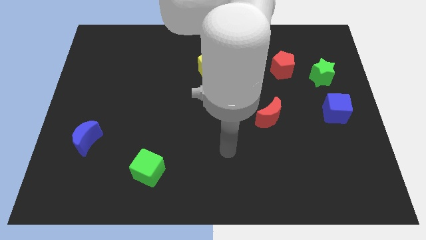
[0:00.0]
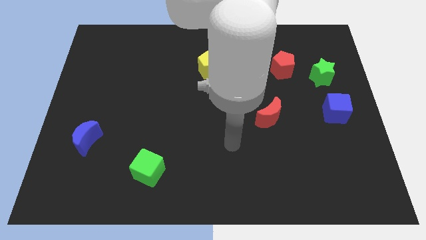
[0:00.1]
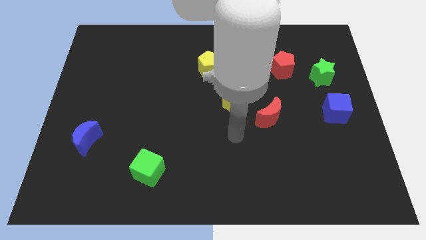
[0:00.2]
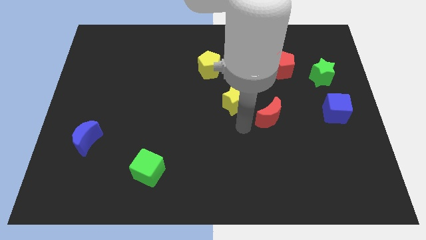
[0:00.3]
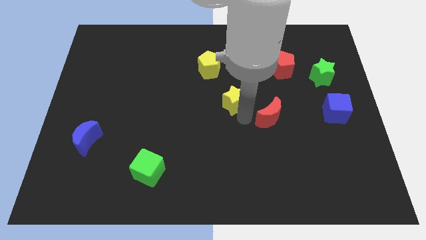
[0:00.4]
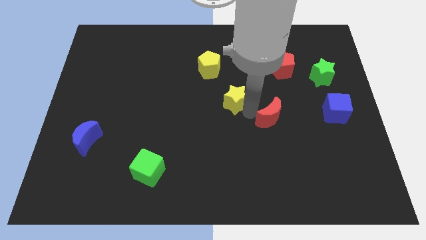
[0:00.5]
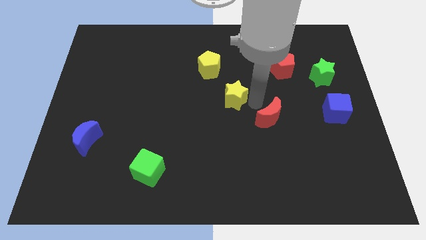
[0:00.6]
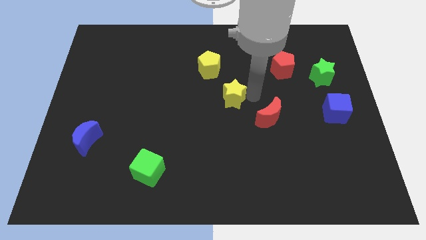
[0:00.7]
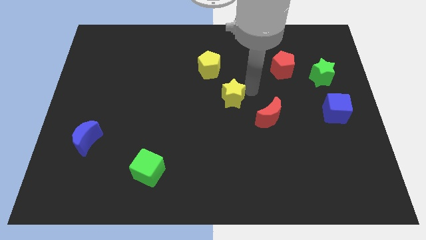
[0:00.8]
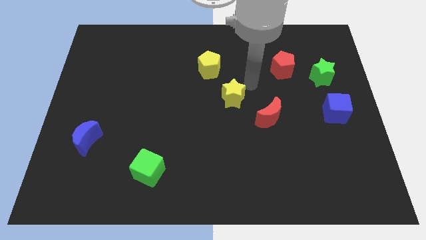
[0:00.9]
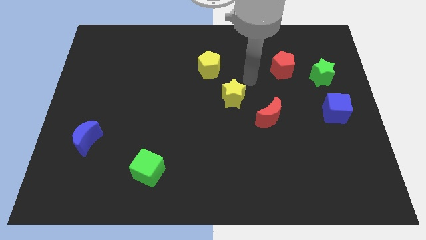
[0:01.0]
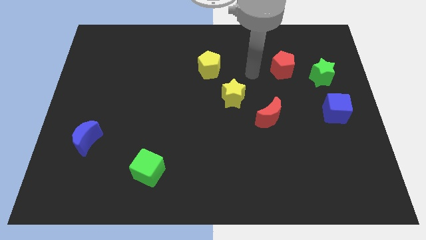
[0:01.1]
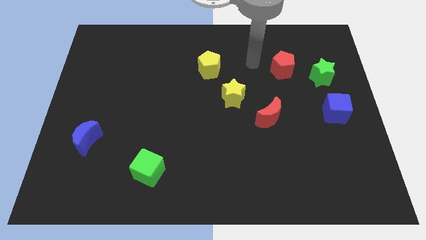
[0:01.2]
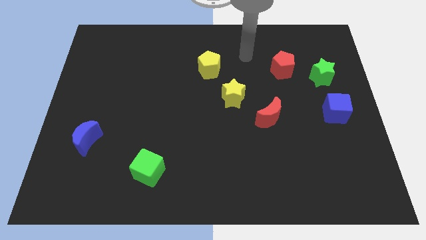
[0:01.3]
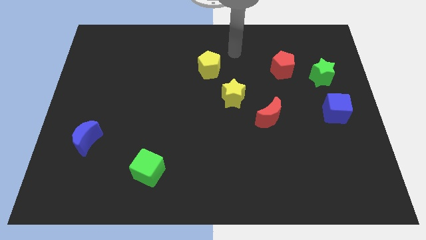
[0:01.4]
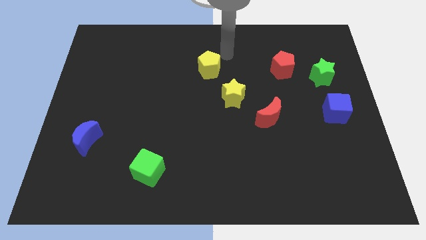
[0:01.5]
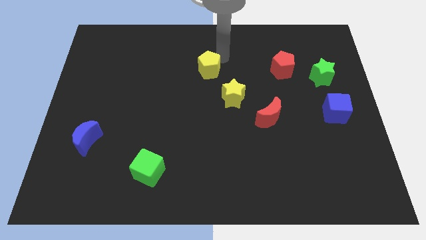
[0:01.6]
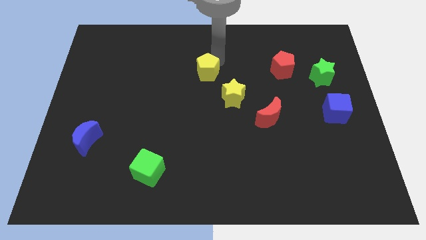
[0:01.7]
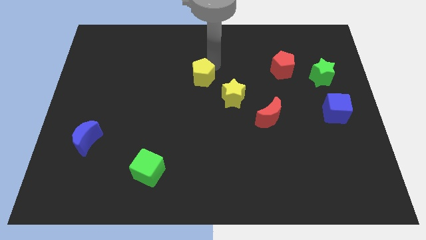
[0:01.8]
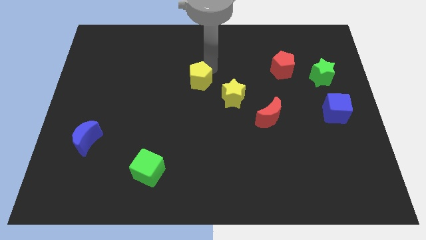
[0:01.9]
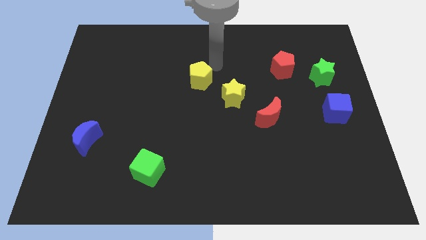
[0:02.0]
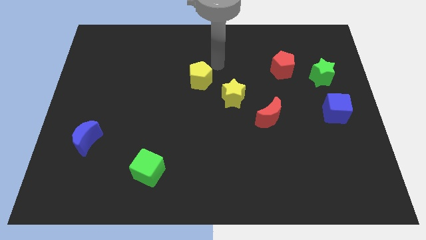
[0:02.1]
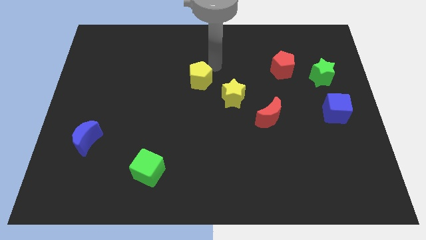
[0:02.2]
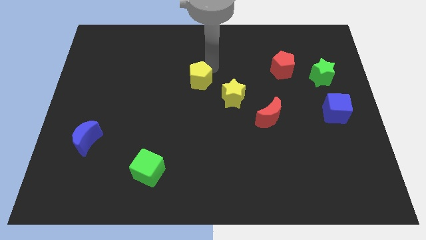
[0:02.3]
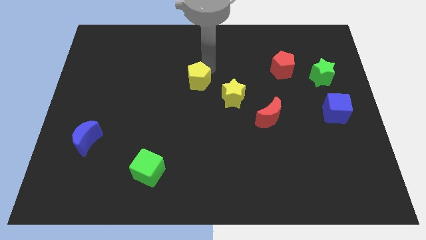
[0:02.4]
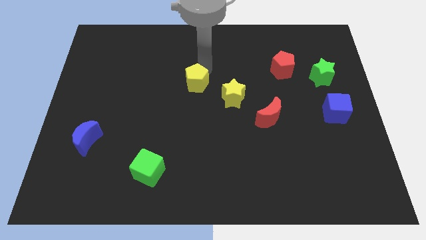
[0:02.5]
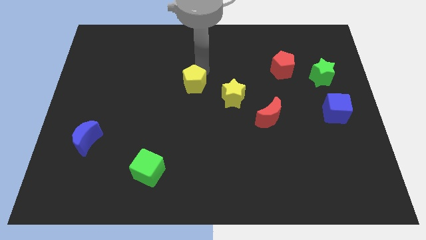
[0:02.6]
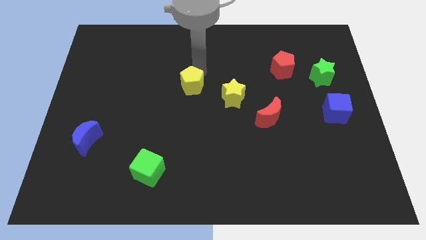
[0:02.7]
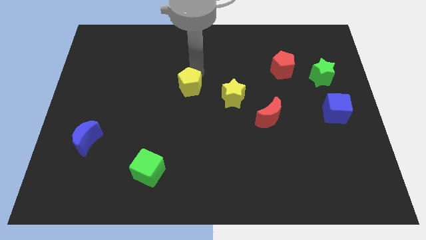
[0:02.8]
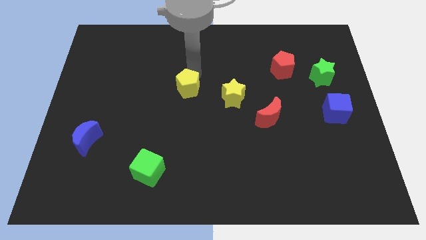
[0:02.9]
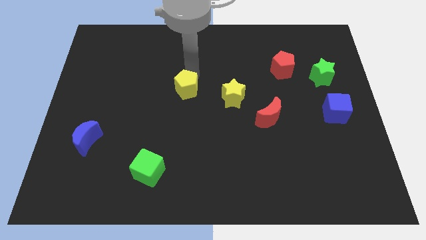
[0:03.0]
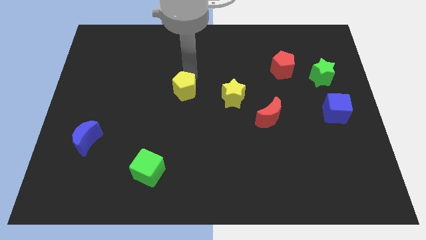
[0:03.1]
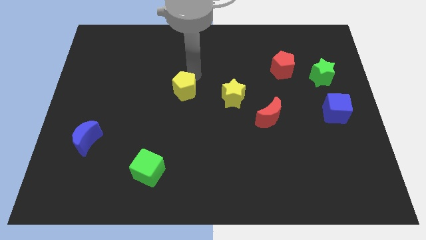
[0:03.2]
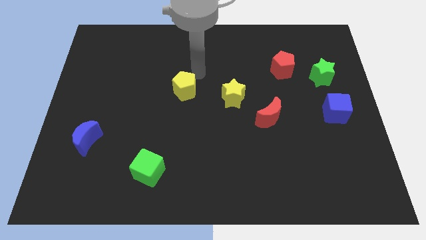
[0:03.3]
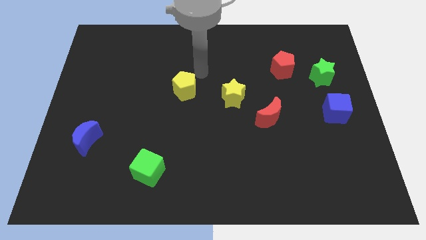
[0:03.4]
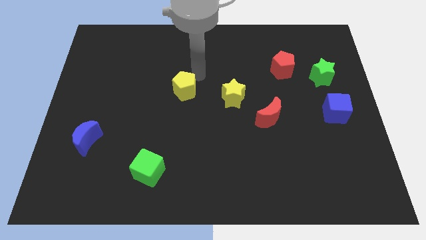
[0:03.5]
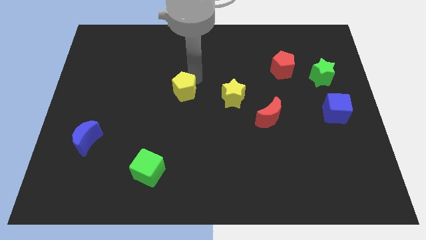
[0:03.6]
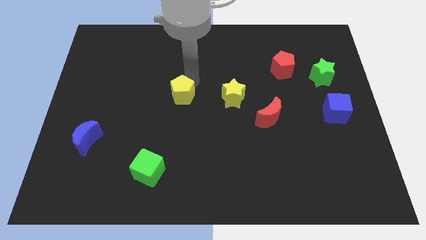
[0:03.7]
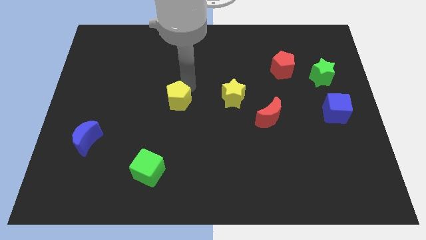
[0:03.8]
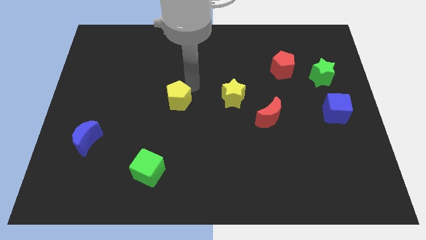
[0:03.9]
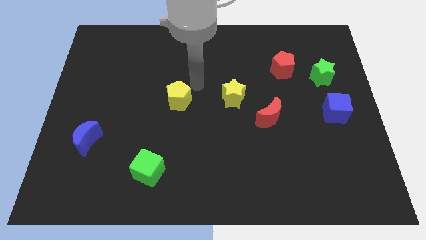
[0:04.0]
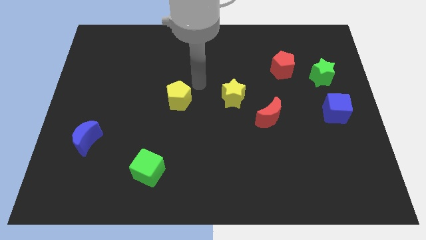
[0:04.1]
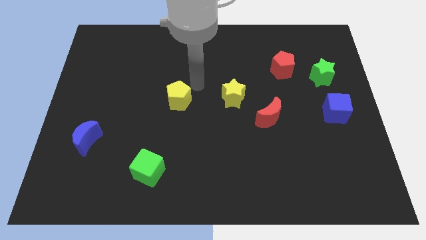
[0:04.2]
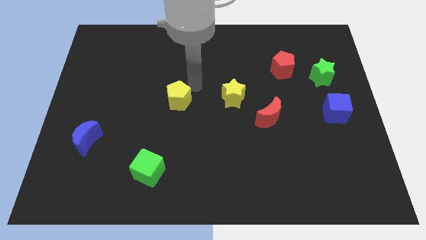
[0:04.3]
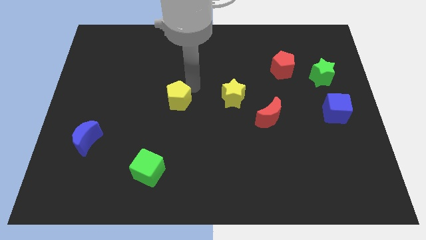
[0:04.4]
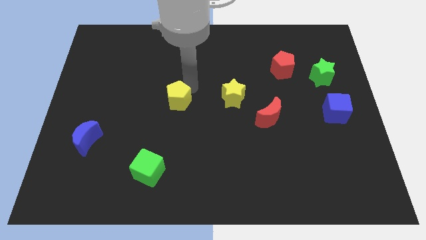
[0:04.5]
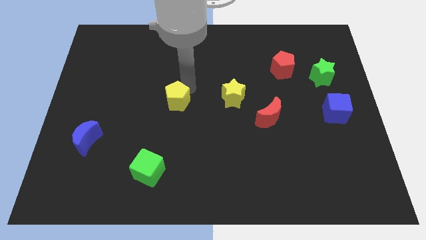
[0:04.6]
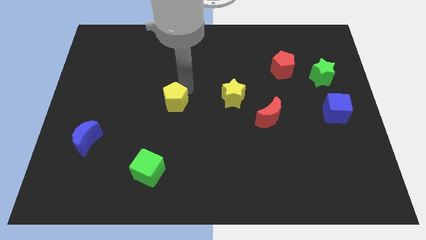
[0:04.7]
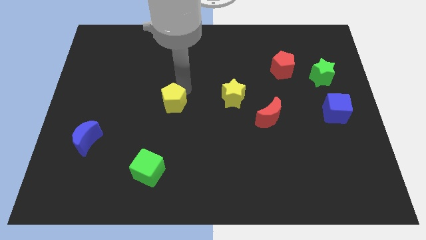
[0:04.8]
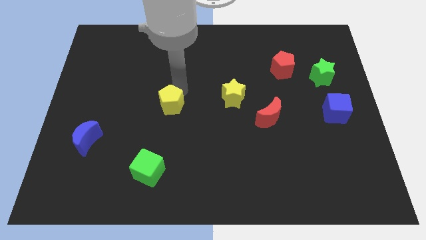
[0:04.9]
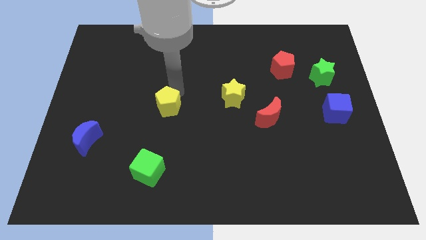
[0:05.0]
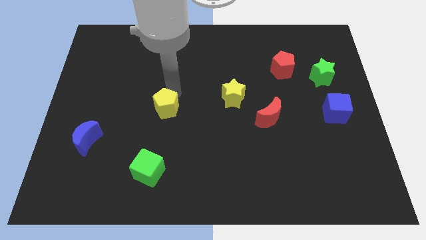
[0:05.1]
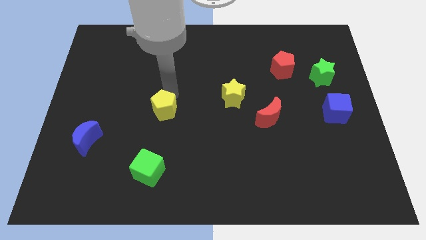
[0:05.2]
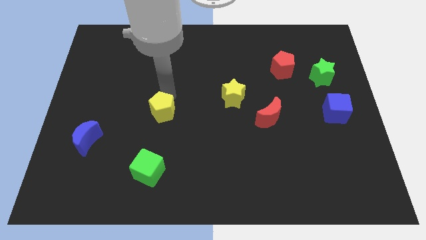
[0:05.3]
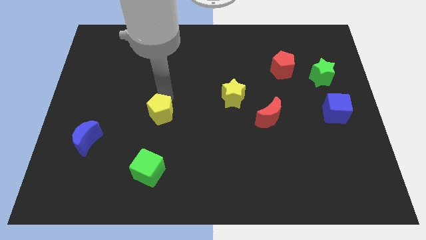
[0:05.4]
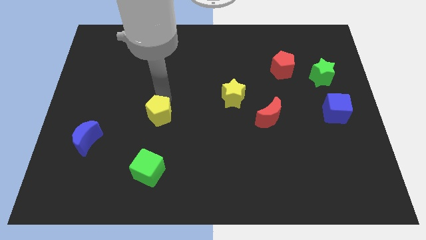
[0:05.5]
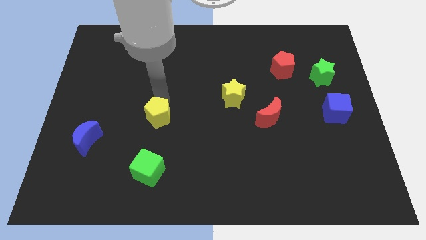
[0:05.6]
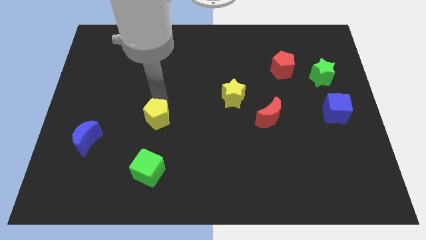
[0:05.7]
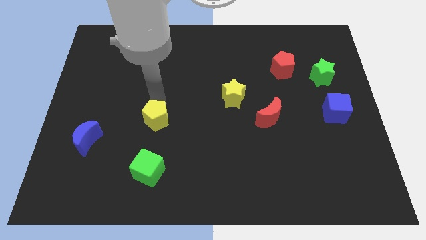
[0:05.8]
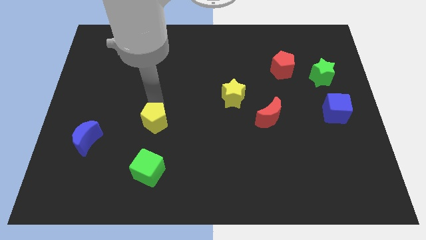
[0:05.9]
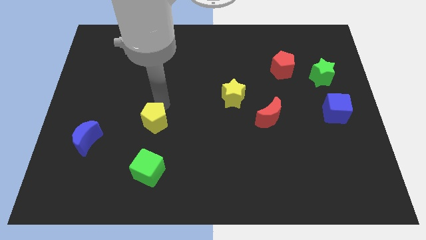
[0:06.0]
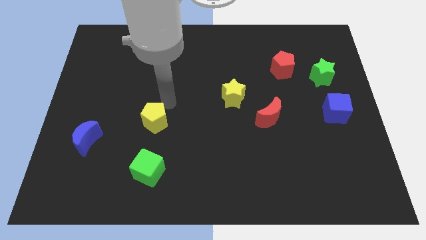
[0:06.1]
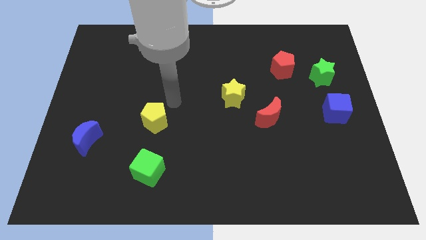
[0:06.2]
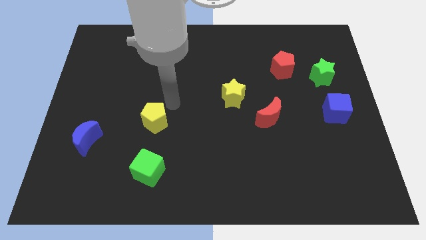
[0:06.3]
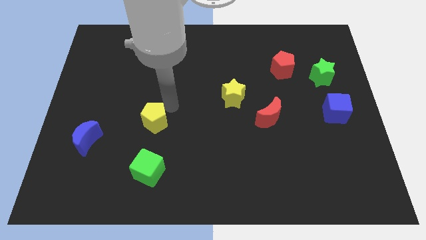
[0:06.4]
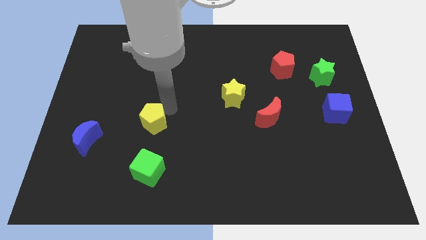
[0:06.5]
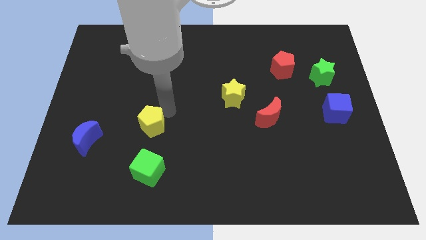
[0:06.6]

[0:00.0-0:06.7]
push the yellow pentagon to the right of the blue moon

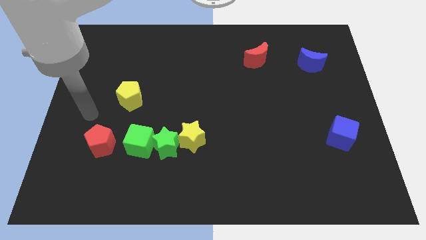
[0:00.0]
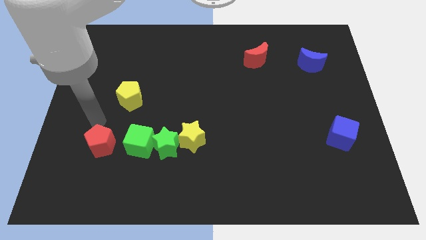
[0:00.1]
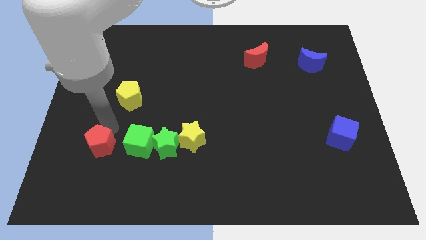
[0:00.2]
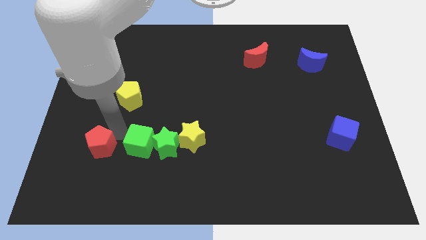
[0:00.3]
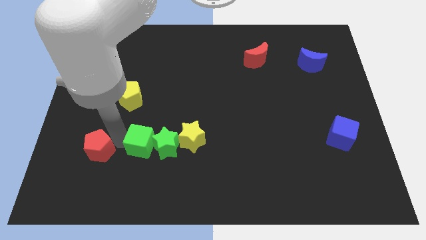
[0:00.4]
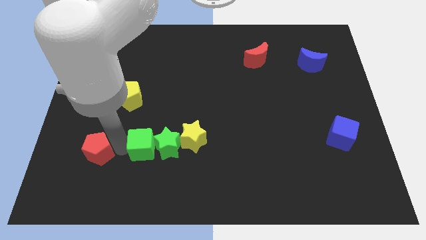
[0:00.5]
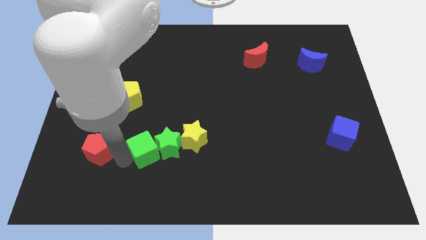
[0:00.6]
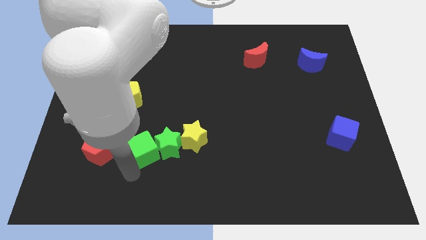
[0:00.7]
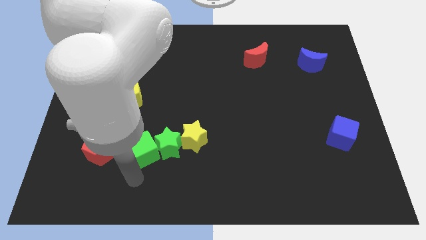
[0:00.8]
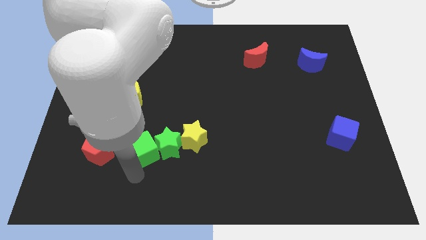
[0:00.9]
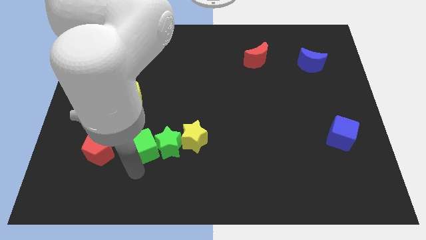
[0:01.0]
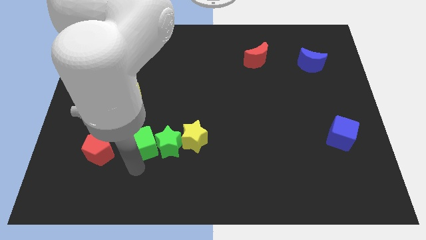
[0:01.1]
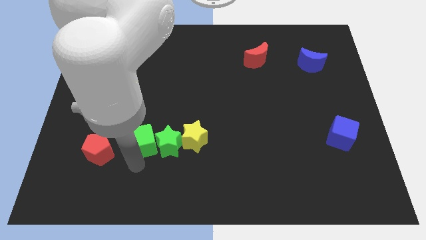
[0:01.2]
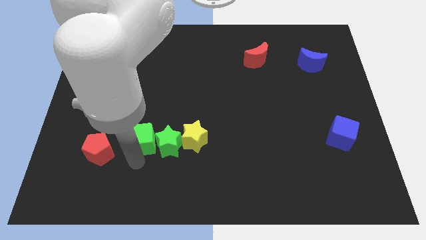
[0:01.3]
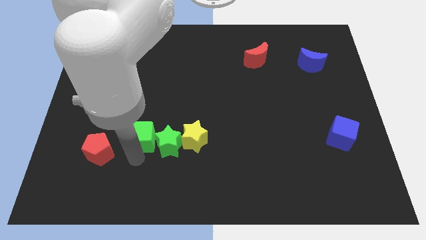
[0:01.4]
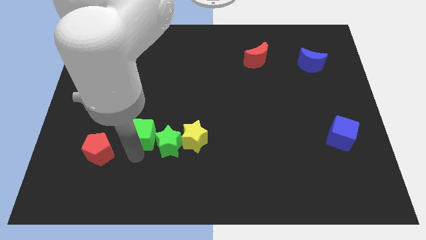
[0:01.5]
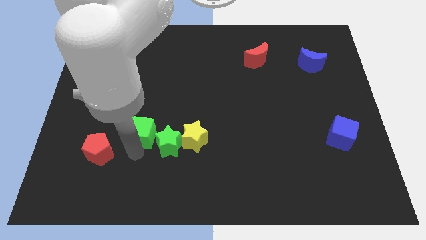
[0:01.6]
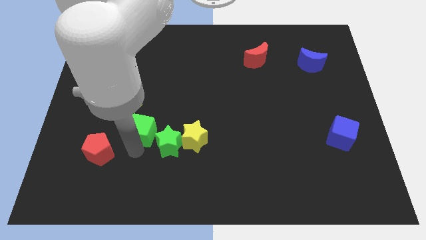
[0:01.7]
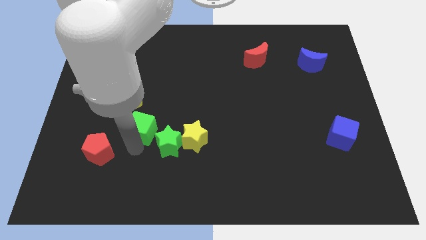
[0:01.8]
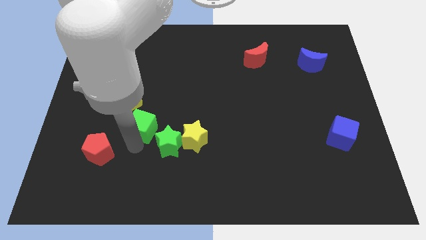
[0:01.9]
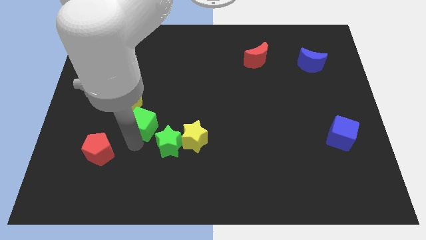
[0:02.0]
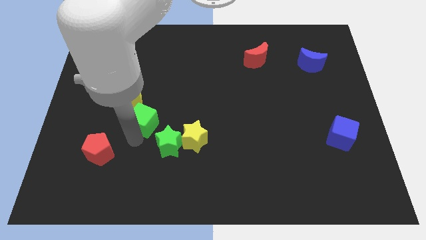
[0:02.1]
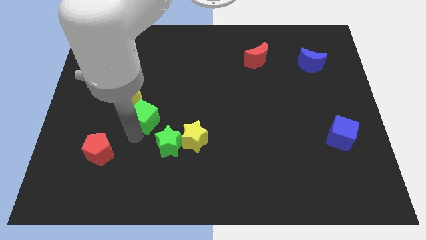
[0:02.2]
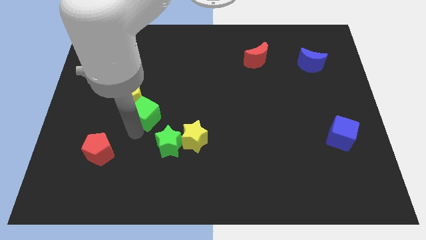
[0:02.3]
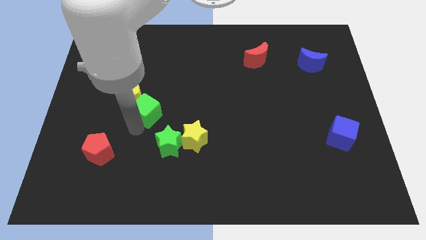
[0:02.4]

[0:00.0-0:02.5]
slide the green cube right of the yellow pentagon
